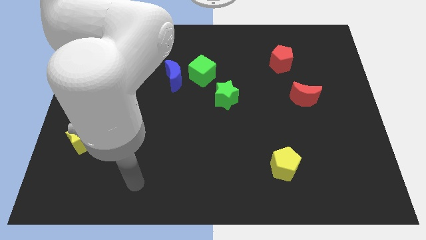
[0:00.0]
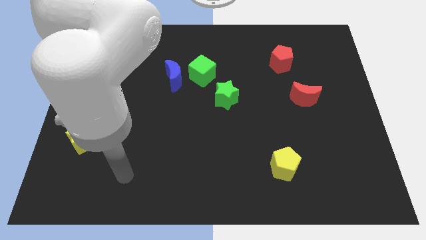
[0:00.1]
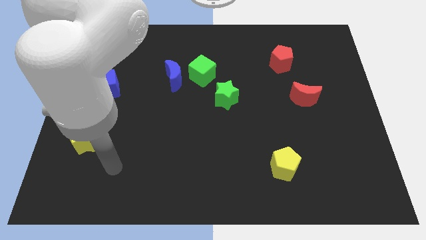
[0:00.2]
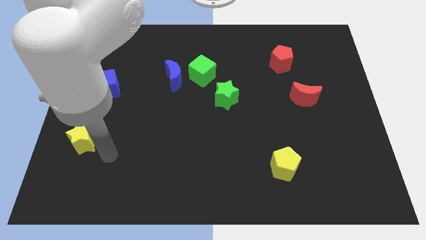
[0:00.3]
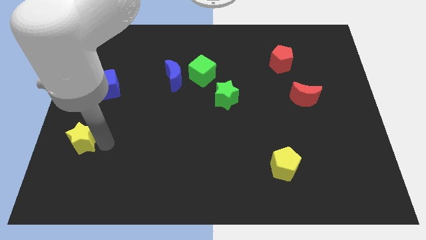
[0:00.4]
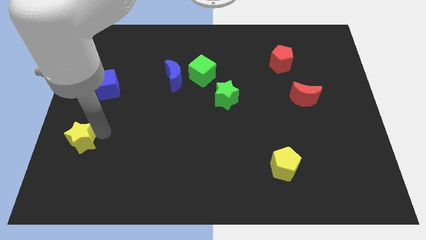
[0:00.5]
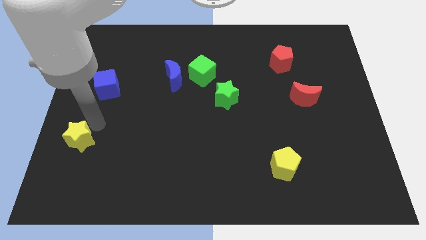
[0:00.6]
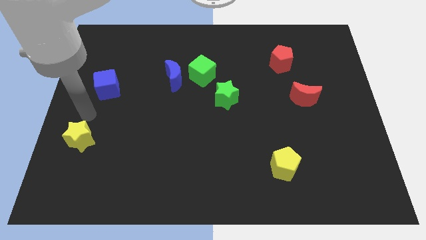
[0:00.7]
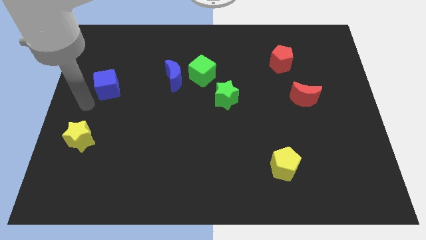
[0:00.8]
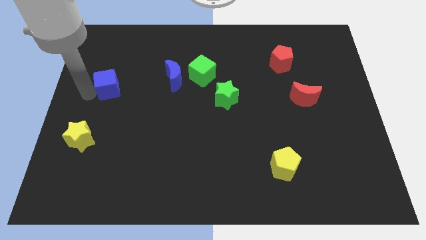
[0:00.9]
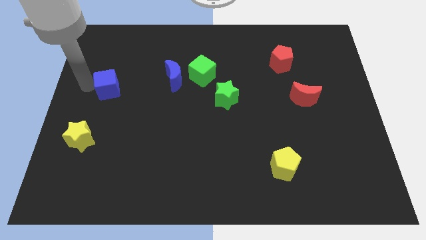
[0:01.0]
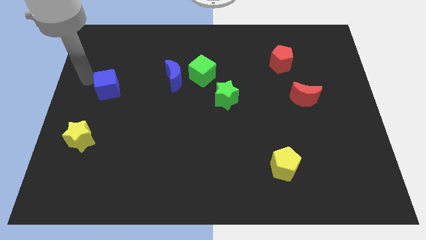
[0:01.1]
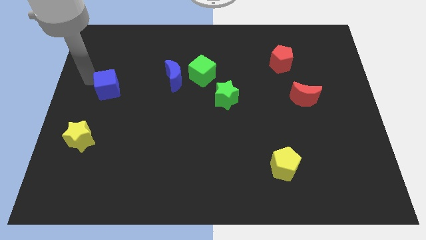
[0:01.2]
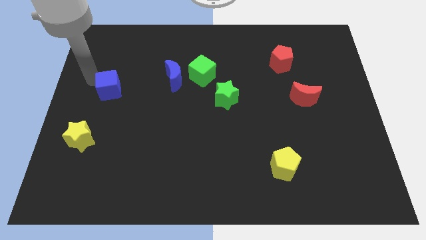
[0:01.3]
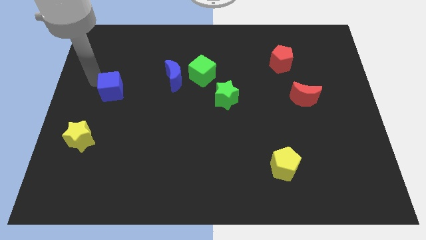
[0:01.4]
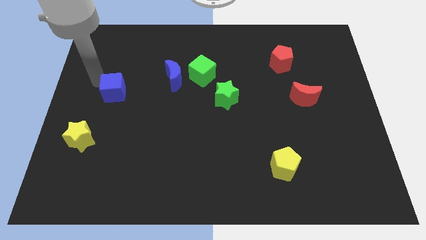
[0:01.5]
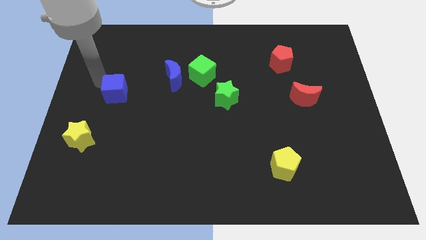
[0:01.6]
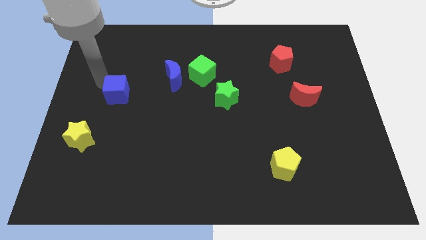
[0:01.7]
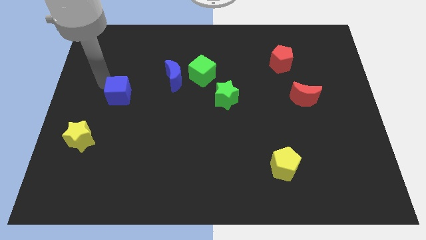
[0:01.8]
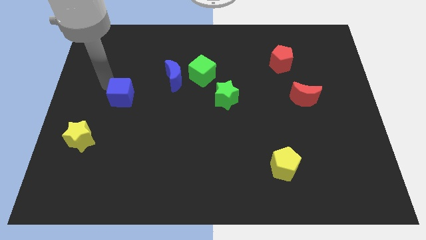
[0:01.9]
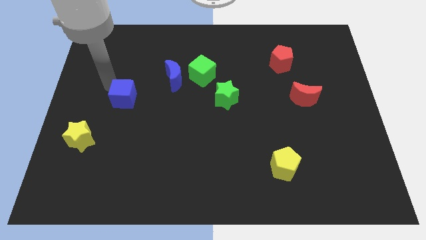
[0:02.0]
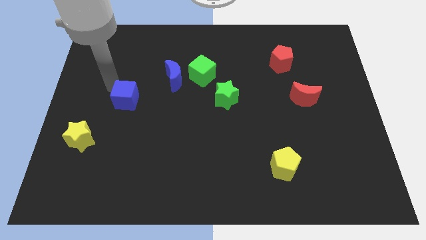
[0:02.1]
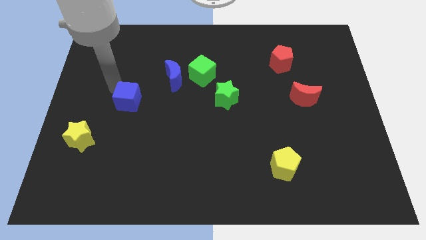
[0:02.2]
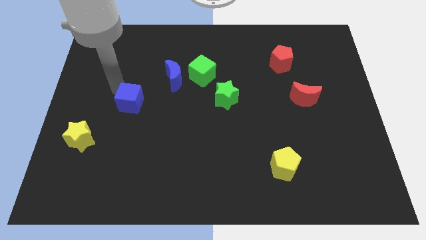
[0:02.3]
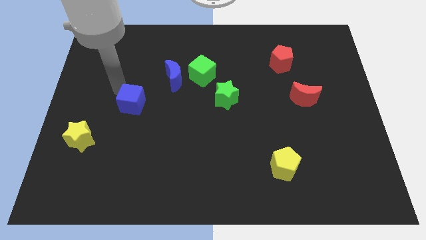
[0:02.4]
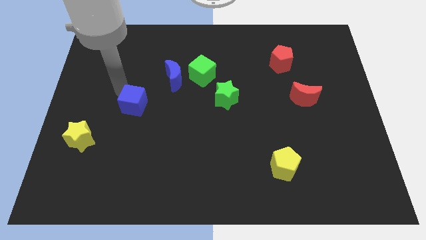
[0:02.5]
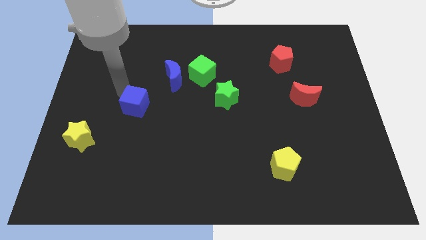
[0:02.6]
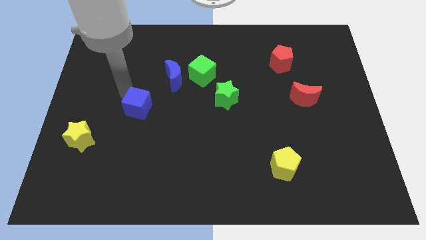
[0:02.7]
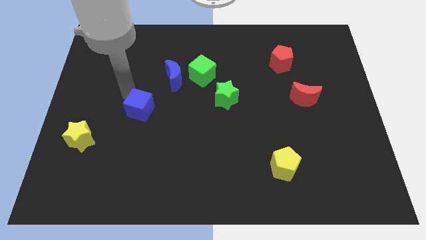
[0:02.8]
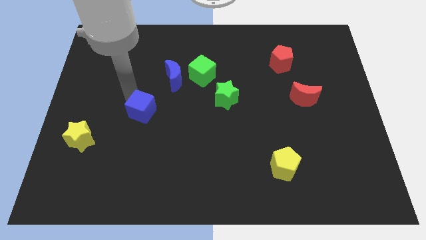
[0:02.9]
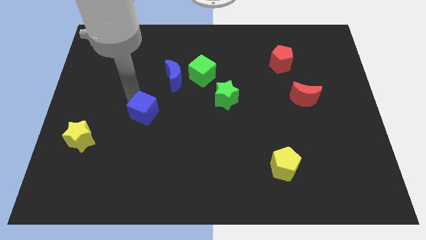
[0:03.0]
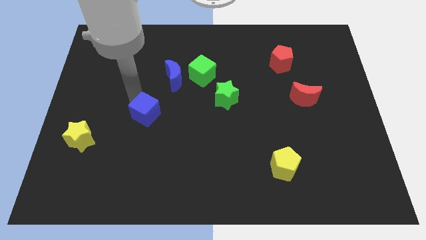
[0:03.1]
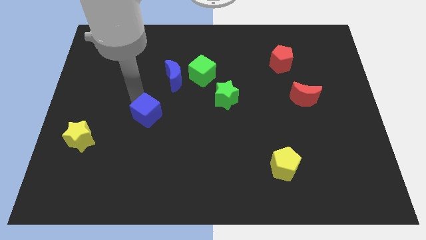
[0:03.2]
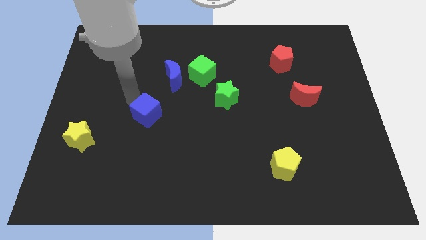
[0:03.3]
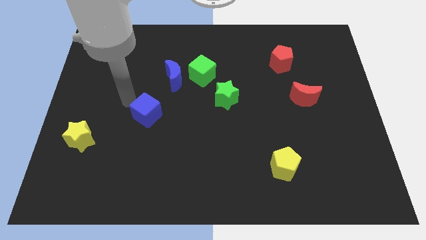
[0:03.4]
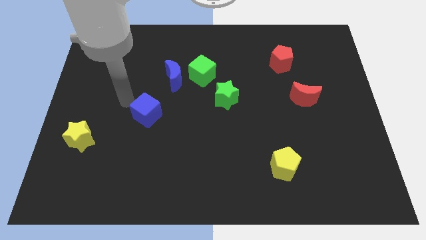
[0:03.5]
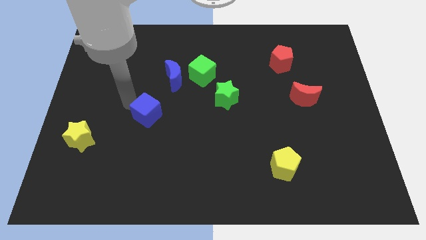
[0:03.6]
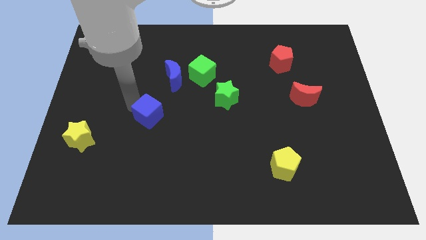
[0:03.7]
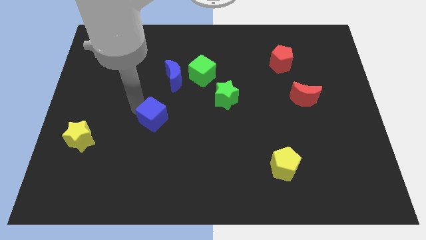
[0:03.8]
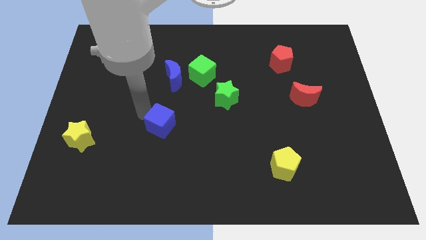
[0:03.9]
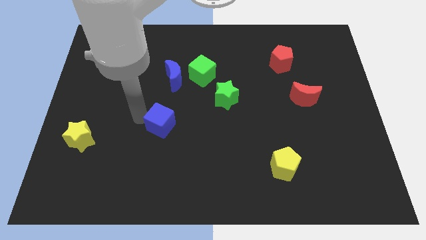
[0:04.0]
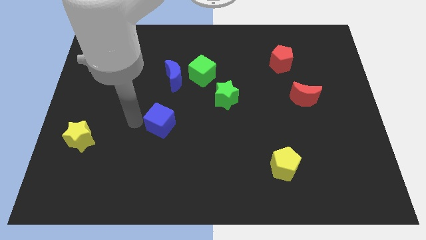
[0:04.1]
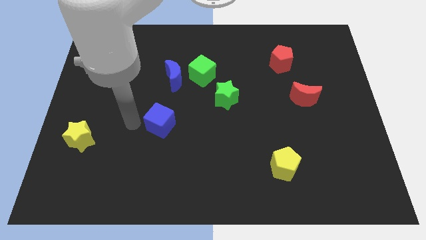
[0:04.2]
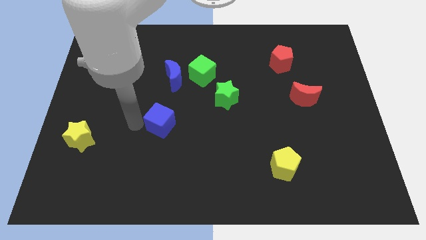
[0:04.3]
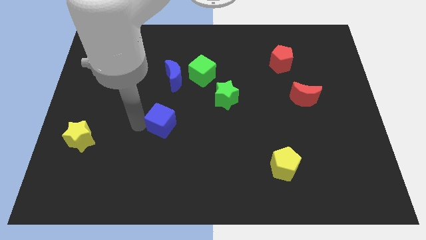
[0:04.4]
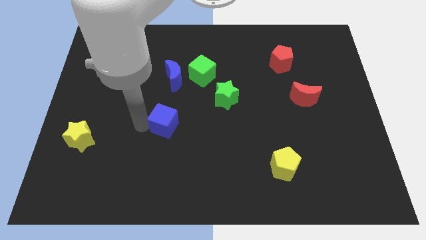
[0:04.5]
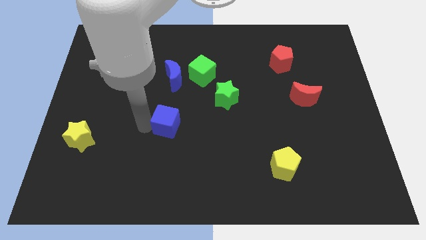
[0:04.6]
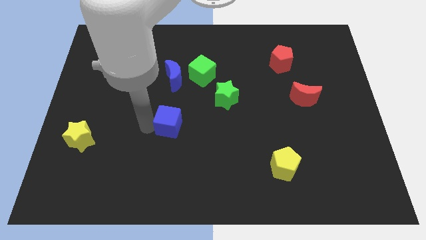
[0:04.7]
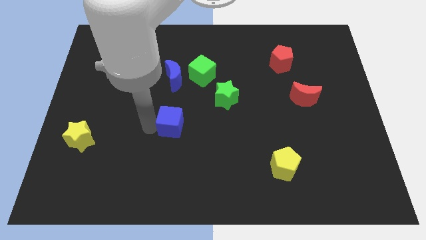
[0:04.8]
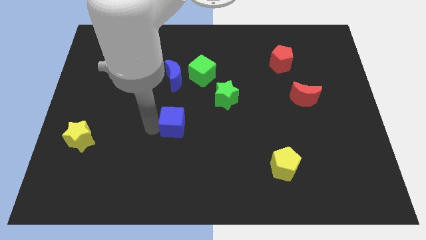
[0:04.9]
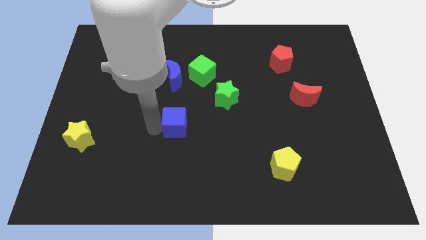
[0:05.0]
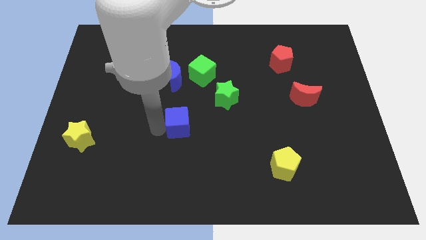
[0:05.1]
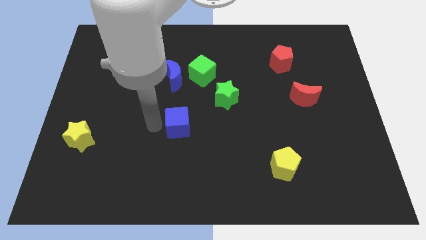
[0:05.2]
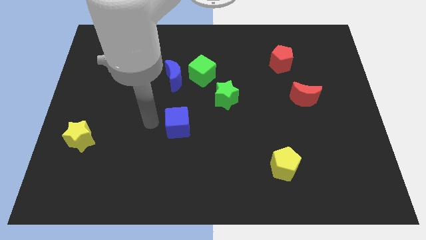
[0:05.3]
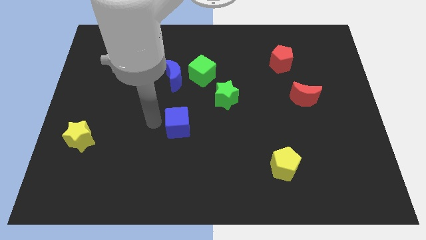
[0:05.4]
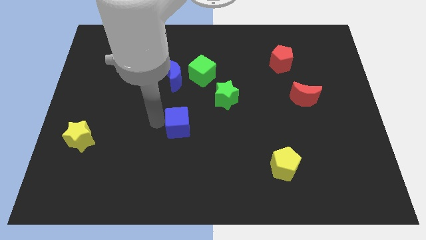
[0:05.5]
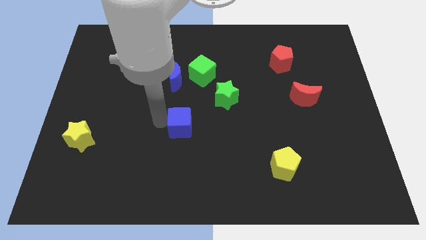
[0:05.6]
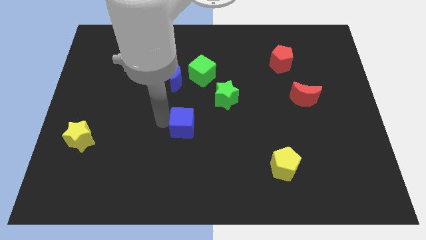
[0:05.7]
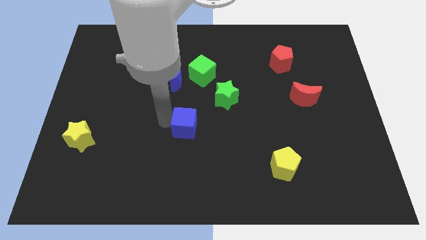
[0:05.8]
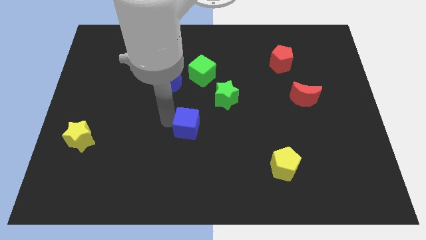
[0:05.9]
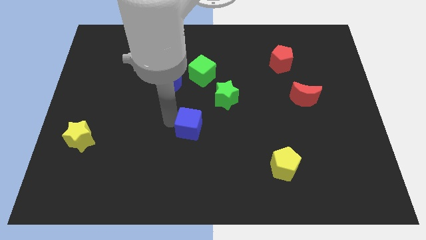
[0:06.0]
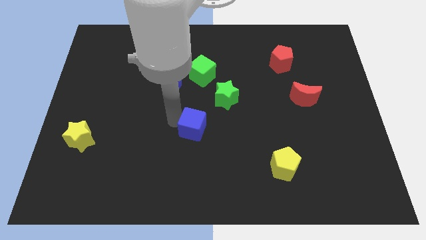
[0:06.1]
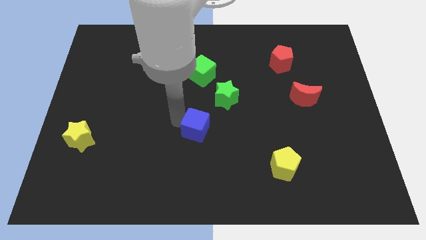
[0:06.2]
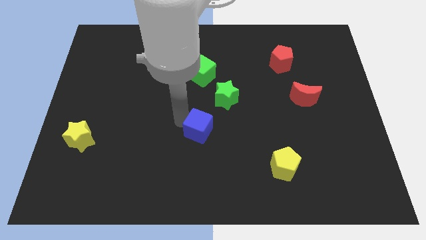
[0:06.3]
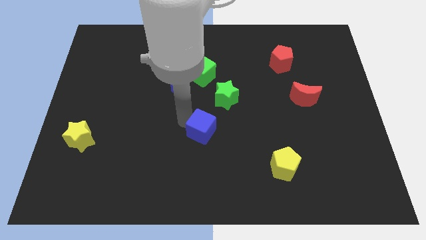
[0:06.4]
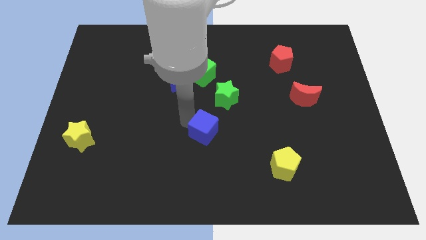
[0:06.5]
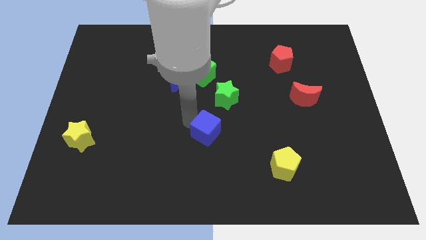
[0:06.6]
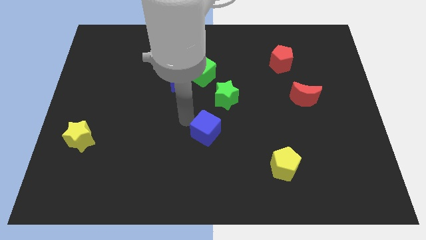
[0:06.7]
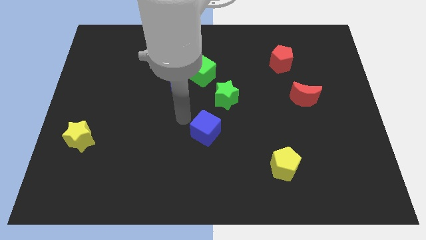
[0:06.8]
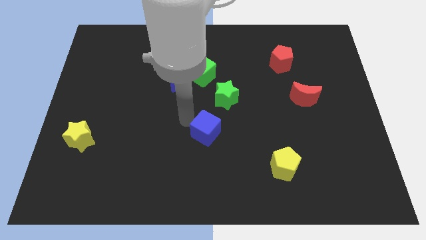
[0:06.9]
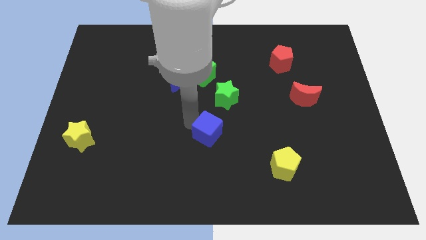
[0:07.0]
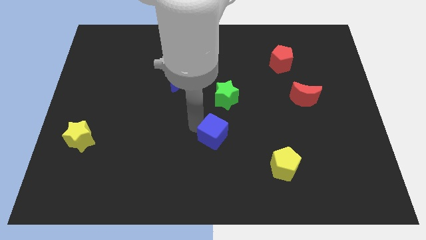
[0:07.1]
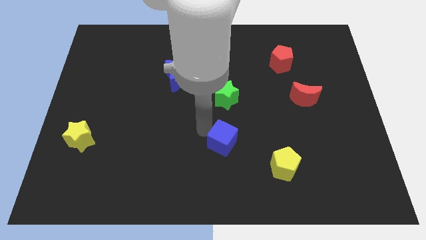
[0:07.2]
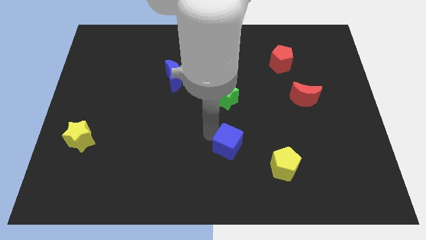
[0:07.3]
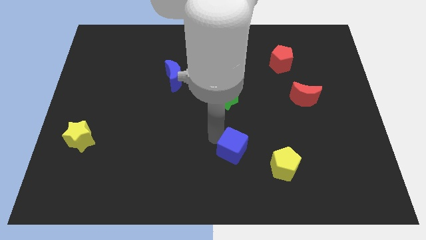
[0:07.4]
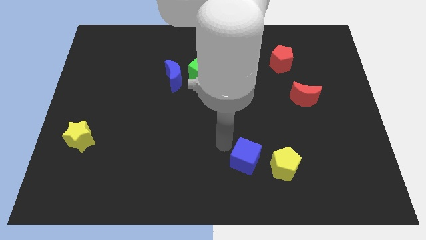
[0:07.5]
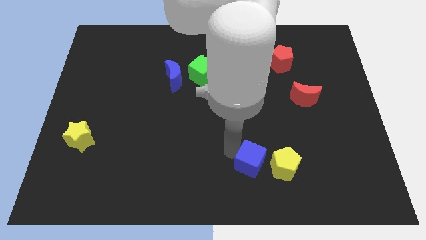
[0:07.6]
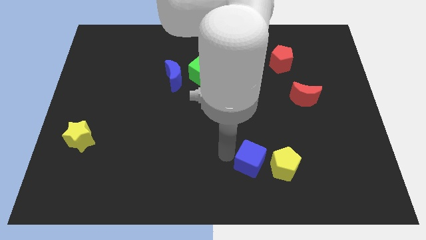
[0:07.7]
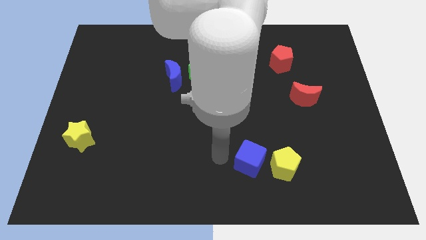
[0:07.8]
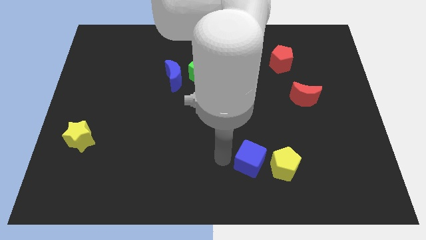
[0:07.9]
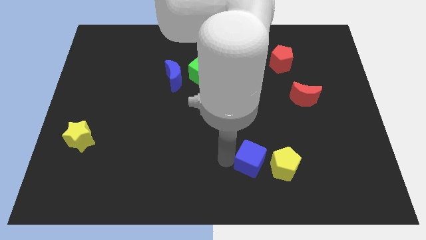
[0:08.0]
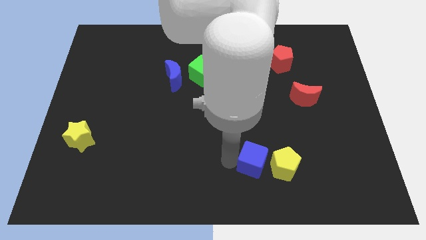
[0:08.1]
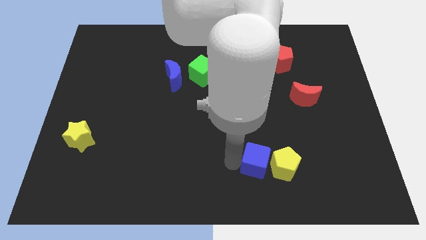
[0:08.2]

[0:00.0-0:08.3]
put the blue cube next to the yellow pentagon
